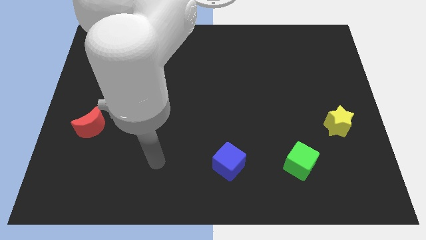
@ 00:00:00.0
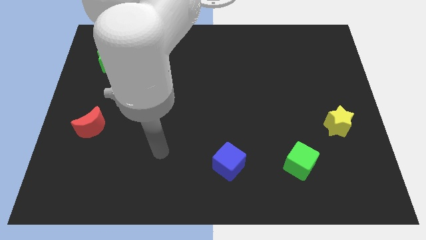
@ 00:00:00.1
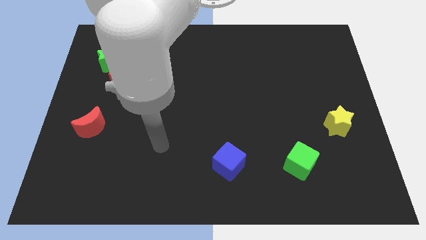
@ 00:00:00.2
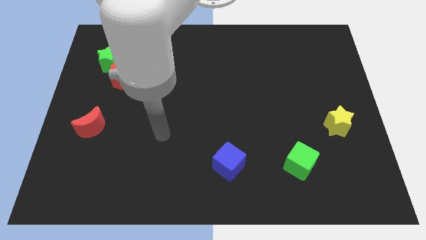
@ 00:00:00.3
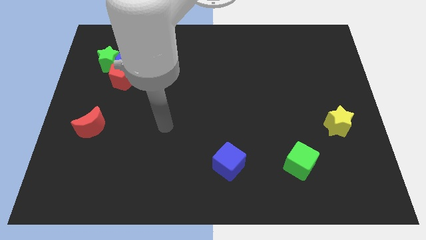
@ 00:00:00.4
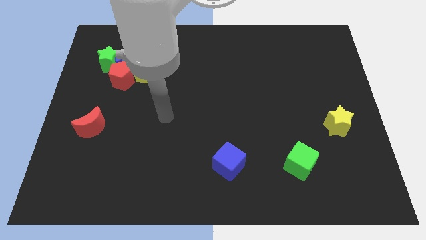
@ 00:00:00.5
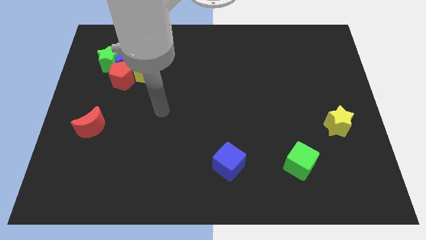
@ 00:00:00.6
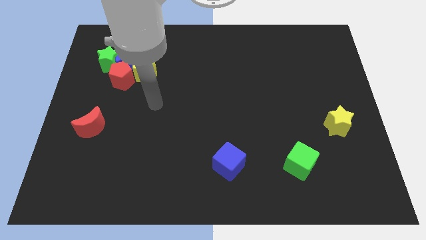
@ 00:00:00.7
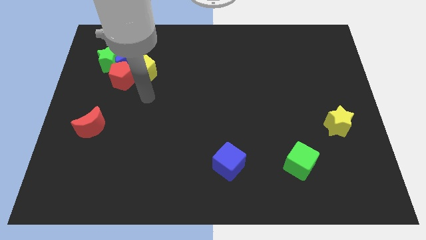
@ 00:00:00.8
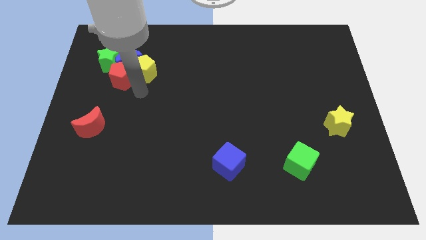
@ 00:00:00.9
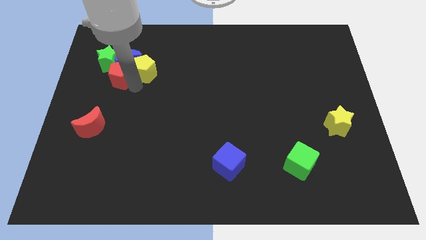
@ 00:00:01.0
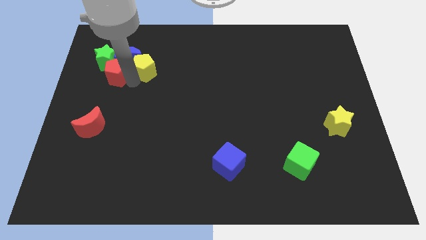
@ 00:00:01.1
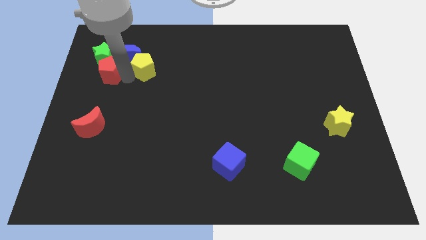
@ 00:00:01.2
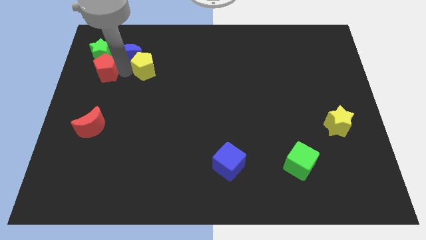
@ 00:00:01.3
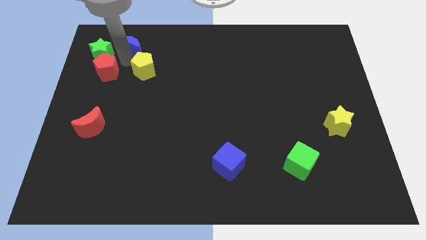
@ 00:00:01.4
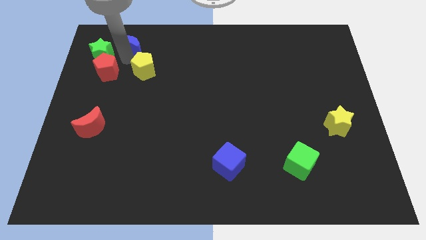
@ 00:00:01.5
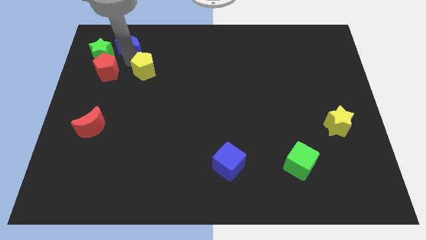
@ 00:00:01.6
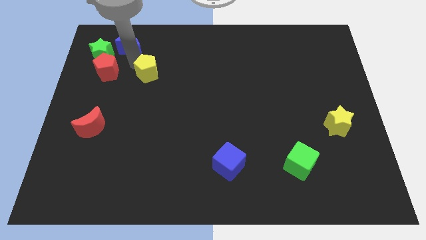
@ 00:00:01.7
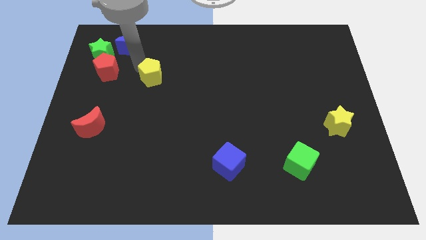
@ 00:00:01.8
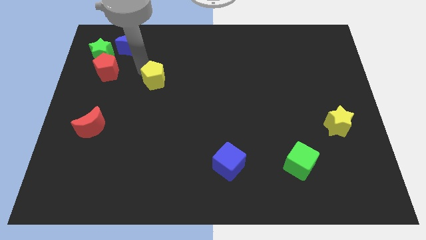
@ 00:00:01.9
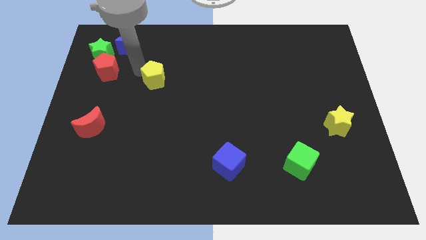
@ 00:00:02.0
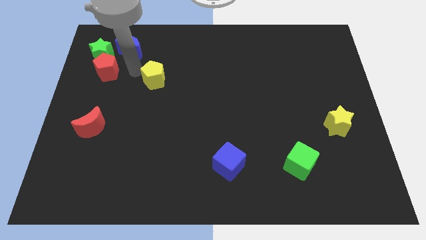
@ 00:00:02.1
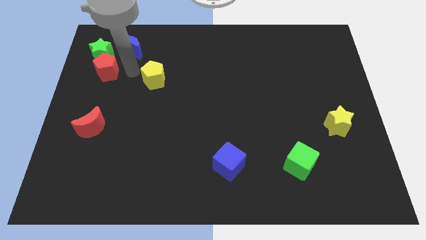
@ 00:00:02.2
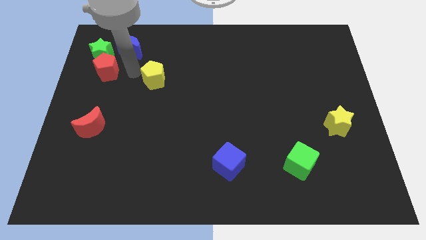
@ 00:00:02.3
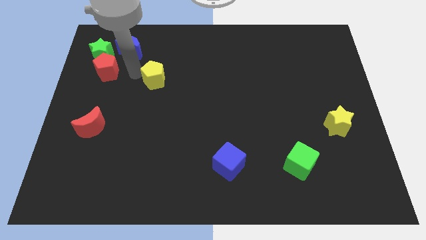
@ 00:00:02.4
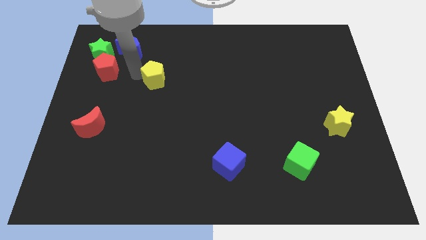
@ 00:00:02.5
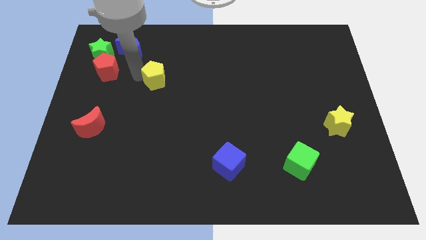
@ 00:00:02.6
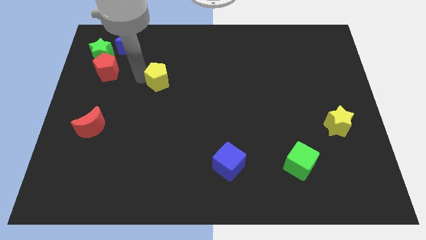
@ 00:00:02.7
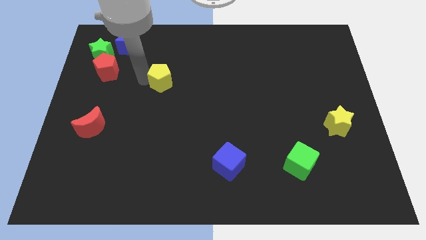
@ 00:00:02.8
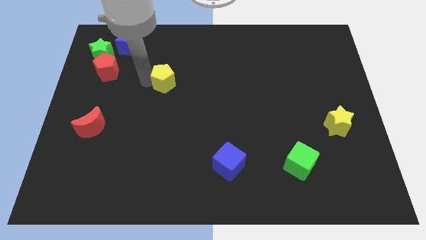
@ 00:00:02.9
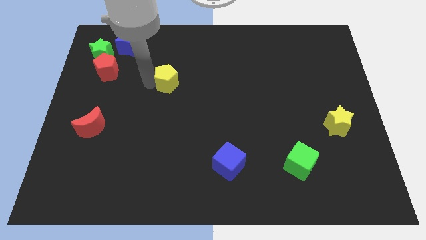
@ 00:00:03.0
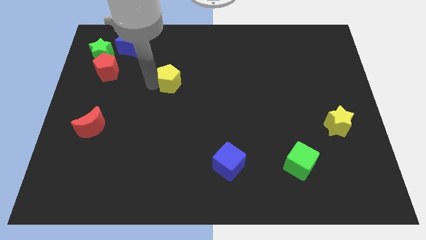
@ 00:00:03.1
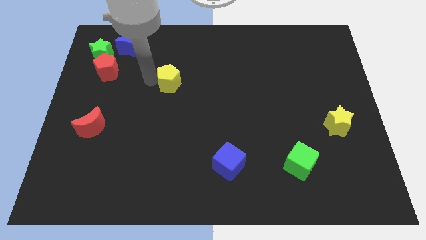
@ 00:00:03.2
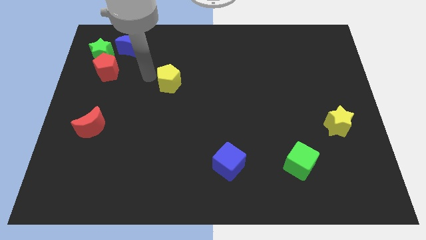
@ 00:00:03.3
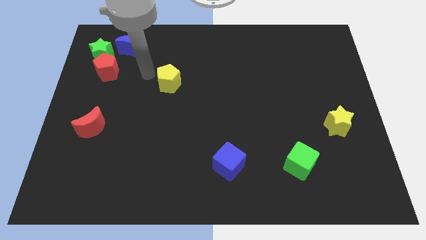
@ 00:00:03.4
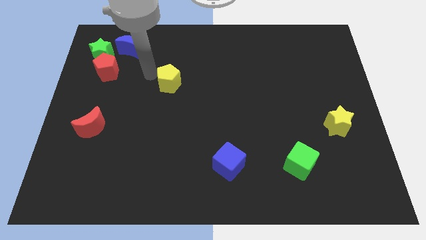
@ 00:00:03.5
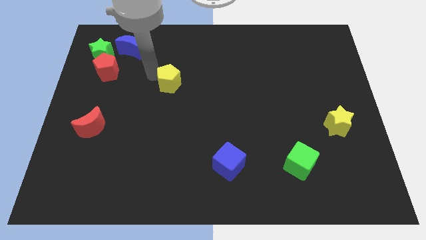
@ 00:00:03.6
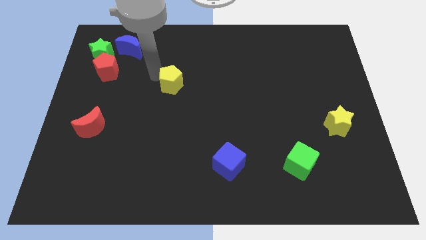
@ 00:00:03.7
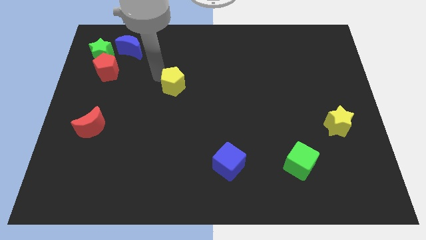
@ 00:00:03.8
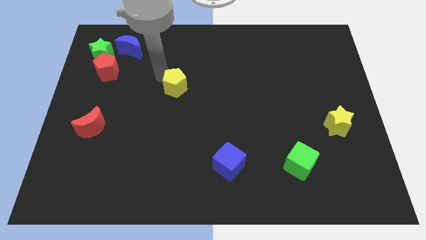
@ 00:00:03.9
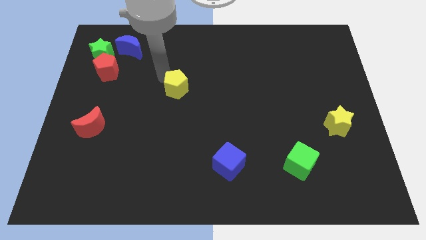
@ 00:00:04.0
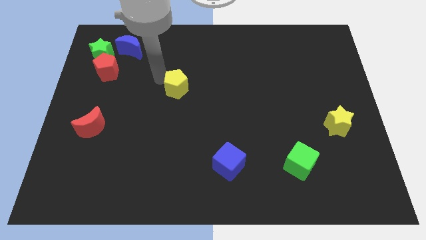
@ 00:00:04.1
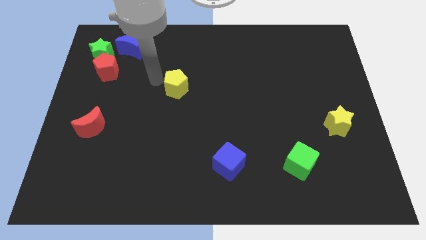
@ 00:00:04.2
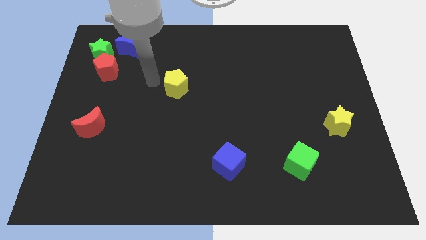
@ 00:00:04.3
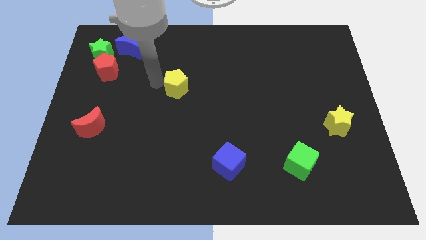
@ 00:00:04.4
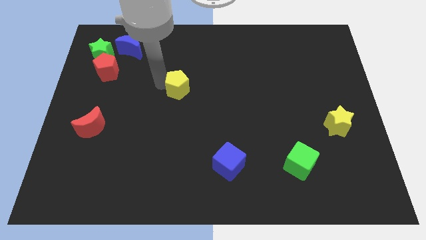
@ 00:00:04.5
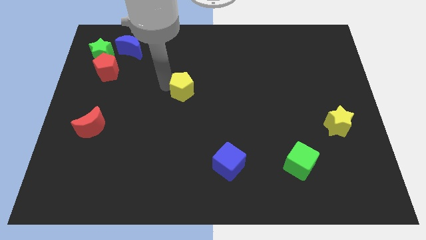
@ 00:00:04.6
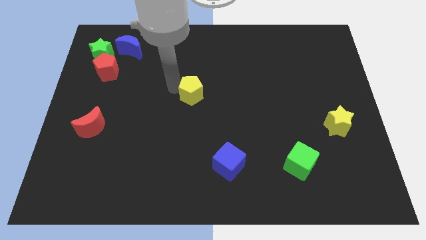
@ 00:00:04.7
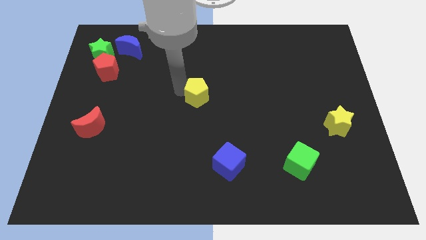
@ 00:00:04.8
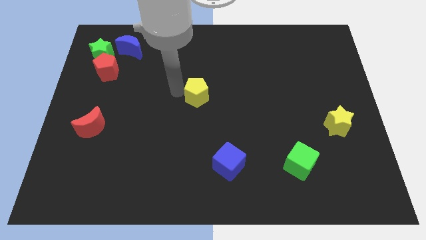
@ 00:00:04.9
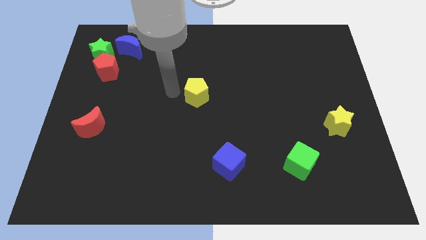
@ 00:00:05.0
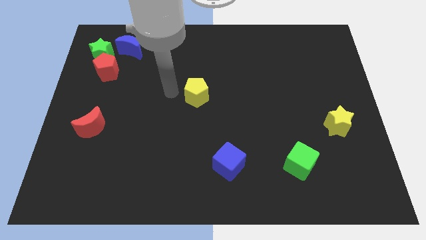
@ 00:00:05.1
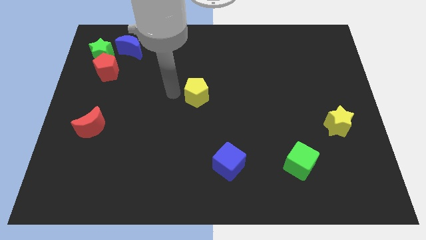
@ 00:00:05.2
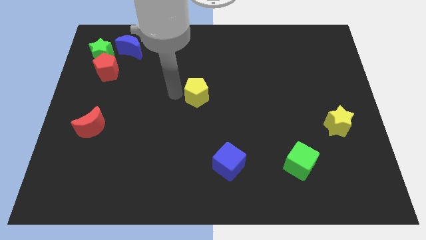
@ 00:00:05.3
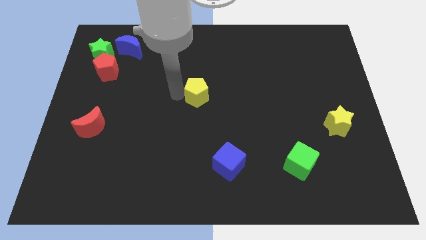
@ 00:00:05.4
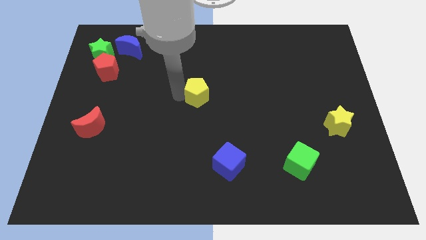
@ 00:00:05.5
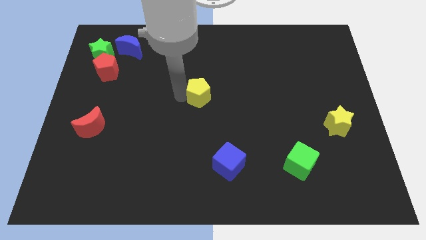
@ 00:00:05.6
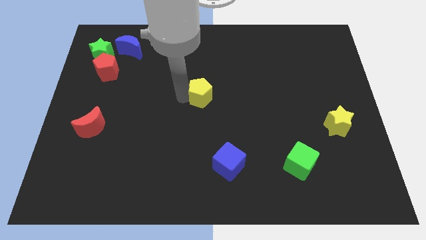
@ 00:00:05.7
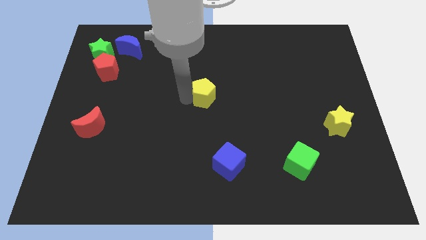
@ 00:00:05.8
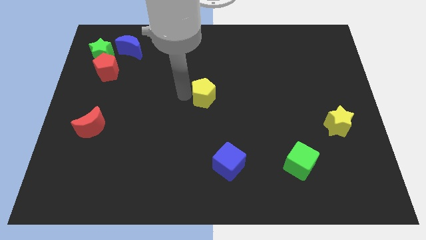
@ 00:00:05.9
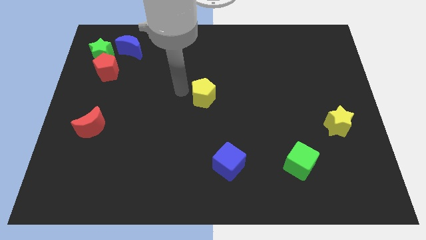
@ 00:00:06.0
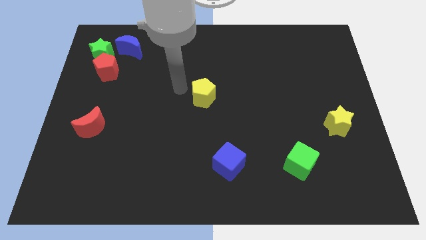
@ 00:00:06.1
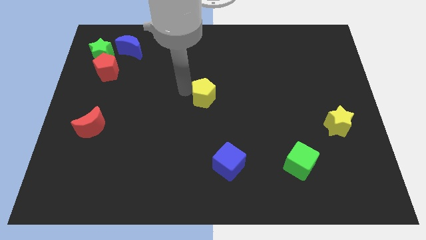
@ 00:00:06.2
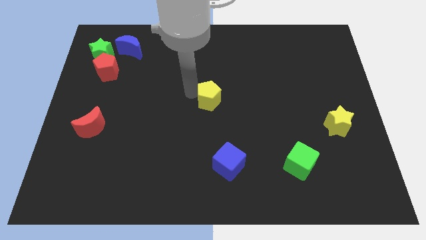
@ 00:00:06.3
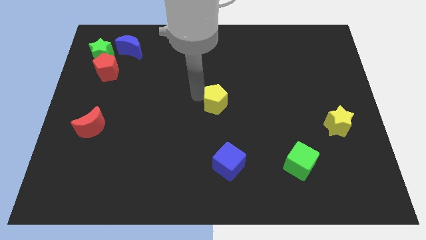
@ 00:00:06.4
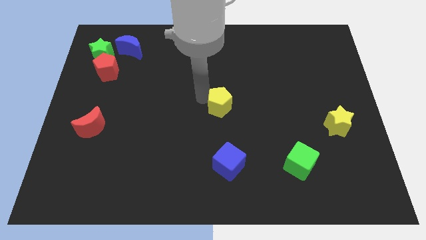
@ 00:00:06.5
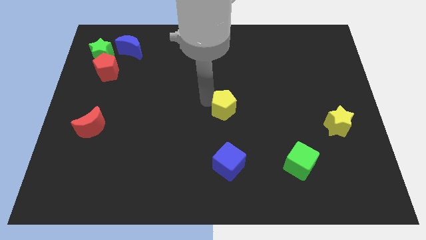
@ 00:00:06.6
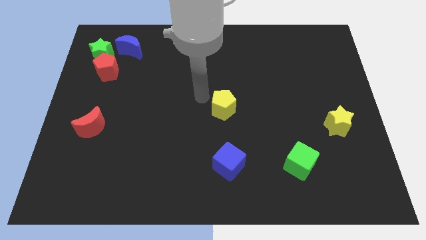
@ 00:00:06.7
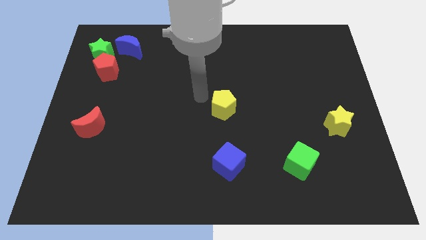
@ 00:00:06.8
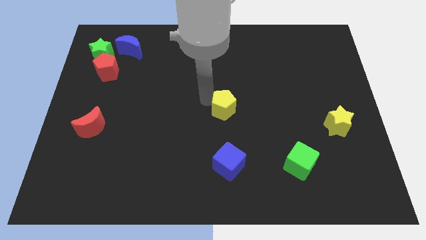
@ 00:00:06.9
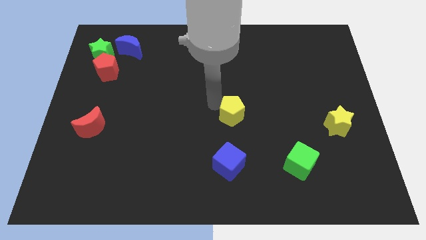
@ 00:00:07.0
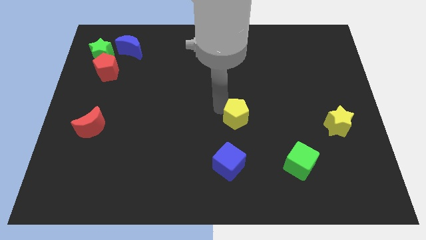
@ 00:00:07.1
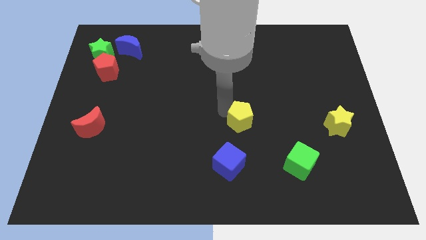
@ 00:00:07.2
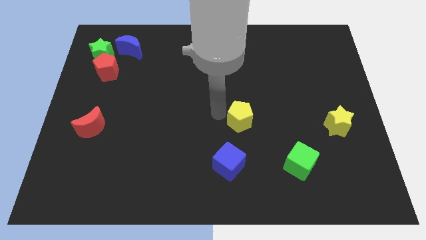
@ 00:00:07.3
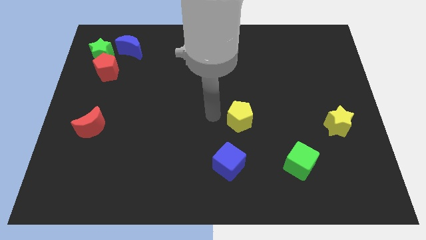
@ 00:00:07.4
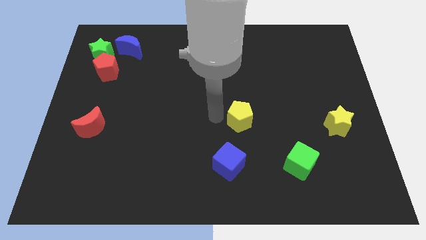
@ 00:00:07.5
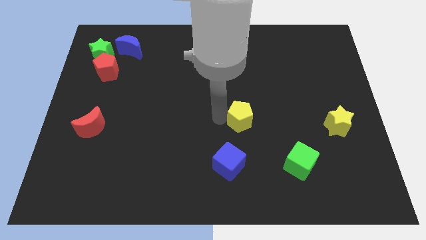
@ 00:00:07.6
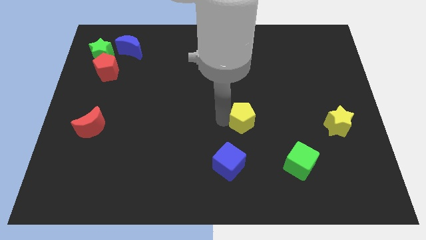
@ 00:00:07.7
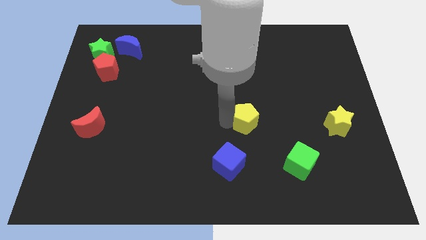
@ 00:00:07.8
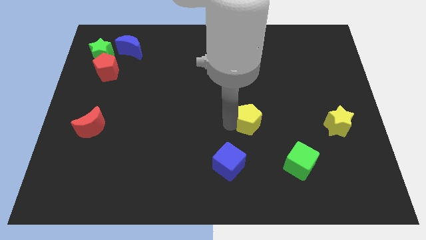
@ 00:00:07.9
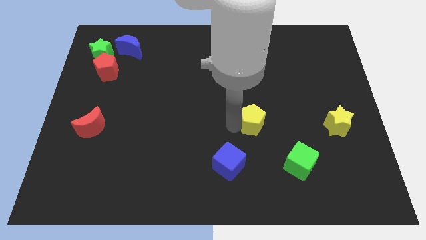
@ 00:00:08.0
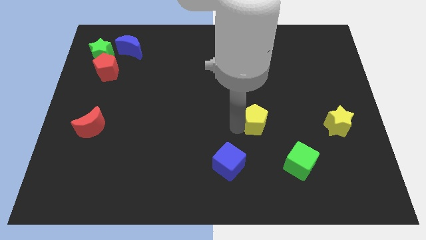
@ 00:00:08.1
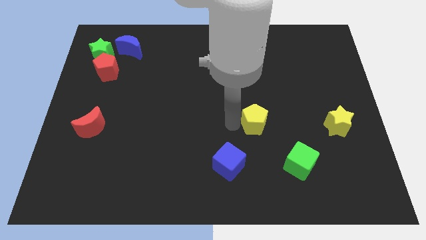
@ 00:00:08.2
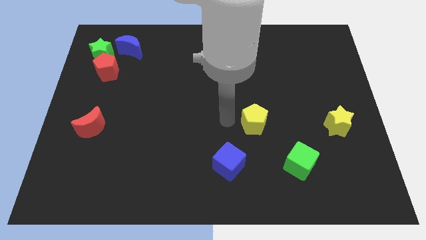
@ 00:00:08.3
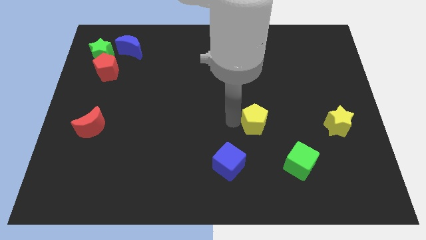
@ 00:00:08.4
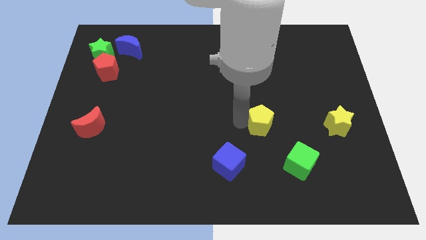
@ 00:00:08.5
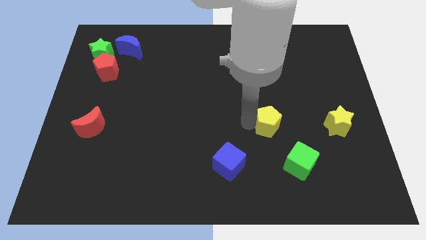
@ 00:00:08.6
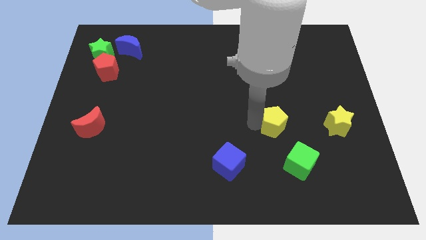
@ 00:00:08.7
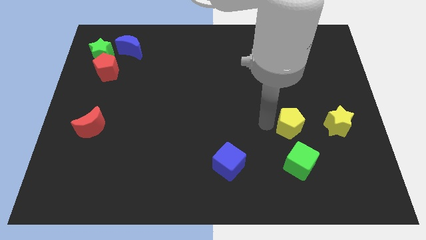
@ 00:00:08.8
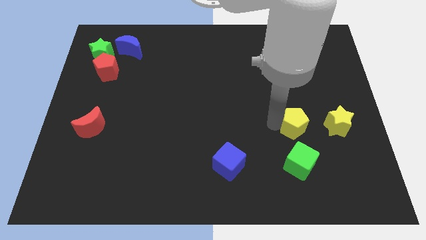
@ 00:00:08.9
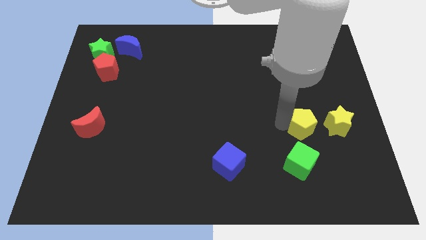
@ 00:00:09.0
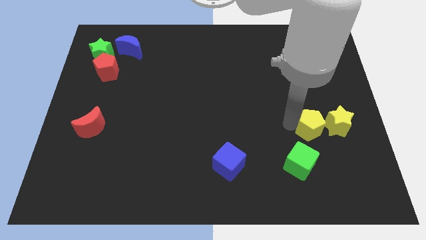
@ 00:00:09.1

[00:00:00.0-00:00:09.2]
put the yellow pentagon to the top right side of the green cube
